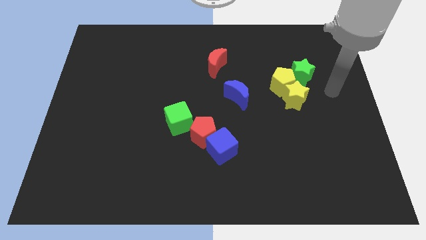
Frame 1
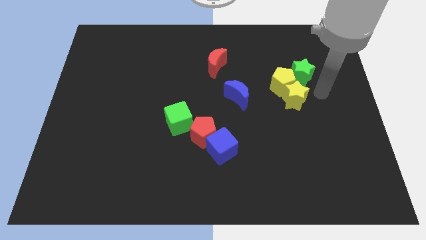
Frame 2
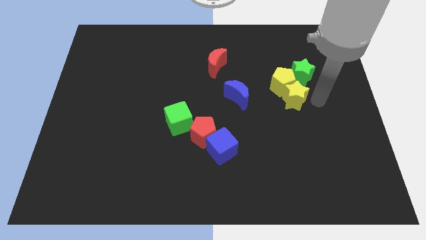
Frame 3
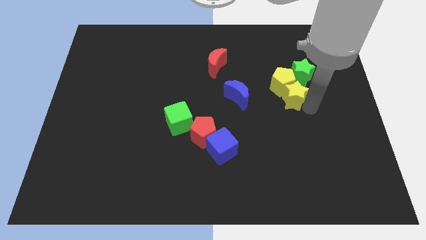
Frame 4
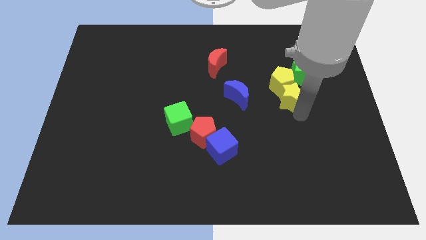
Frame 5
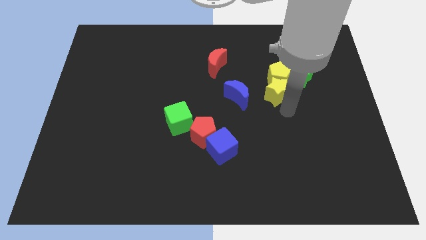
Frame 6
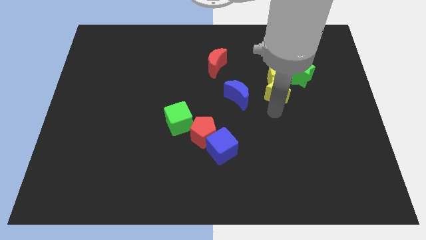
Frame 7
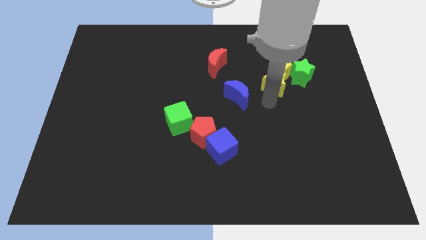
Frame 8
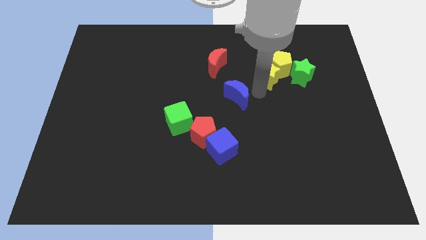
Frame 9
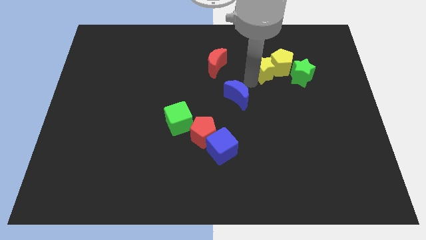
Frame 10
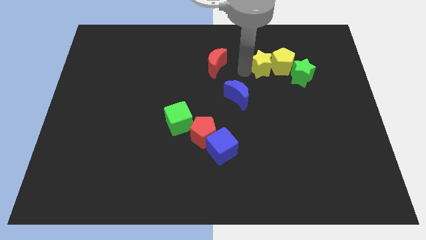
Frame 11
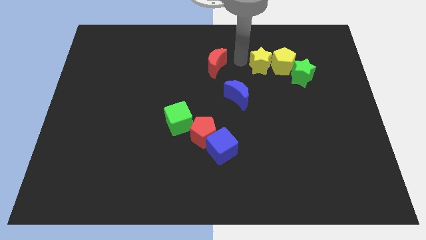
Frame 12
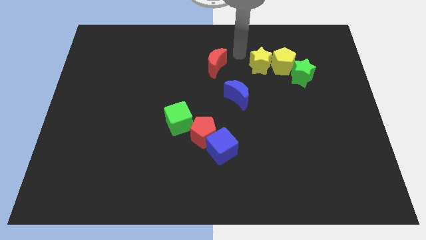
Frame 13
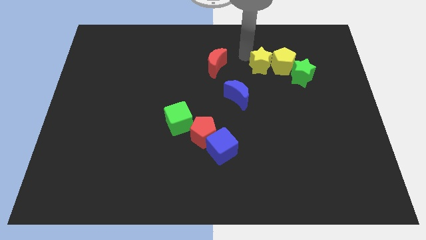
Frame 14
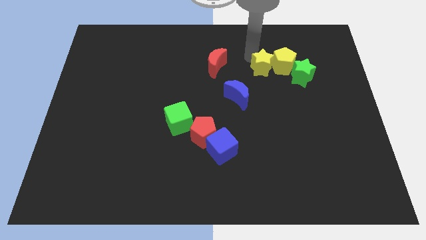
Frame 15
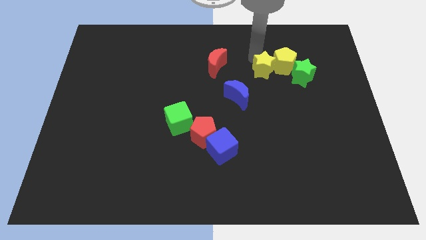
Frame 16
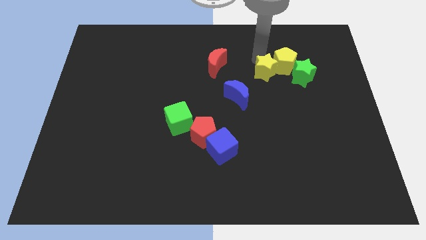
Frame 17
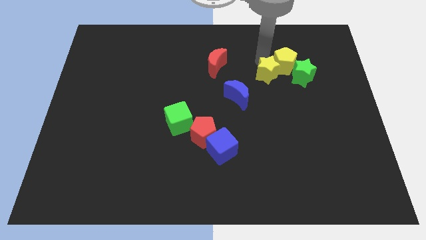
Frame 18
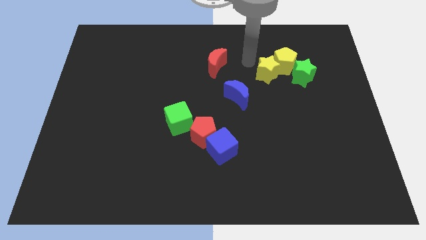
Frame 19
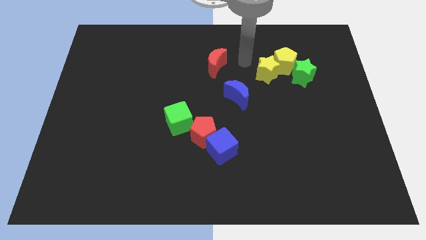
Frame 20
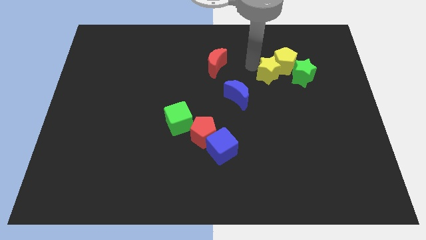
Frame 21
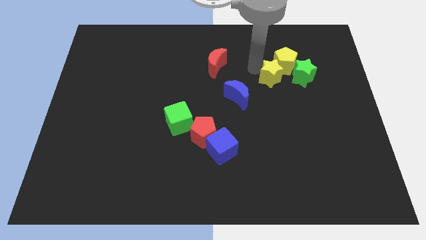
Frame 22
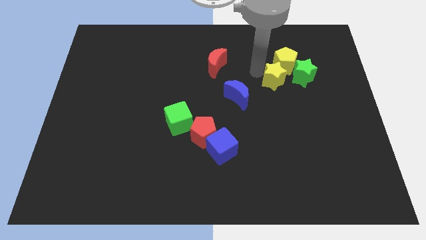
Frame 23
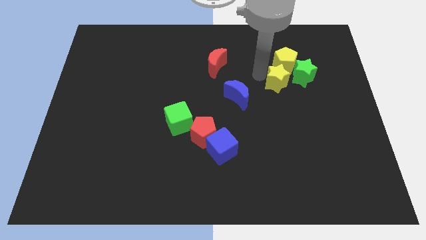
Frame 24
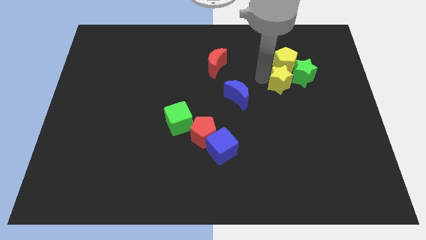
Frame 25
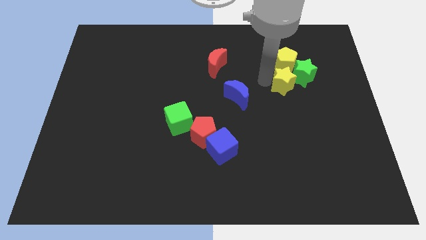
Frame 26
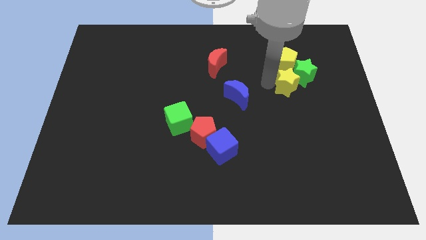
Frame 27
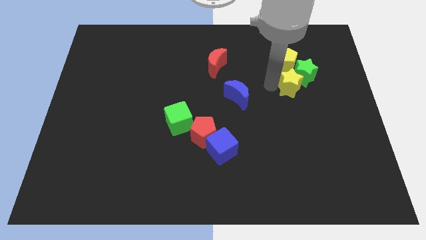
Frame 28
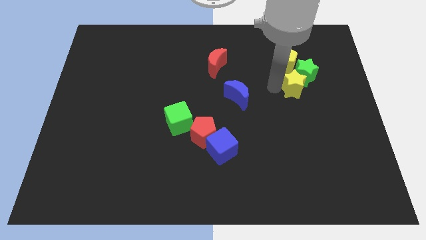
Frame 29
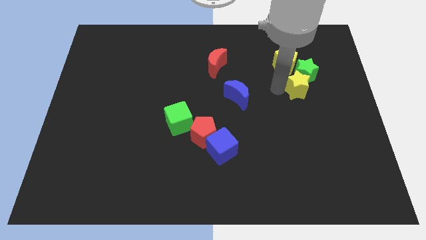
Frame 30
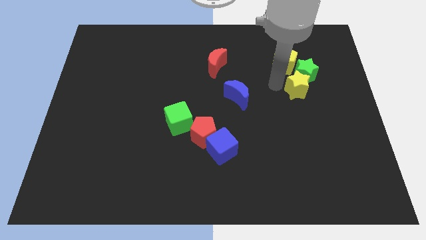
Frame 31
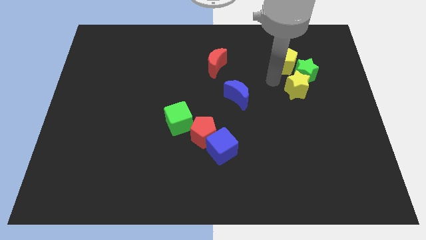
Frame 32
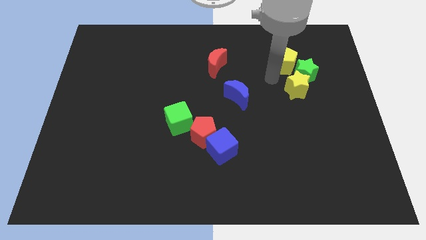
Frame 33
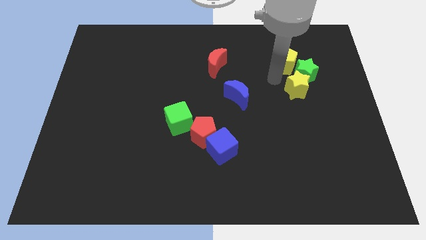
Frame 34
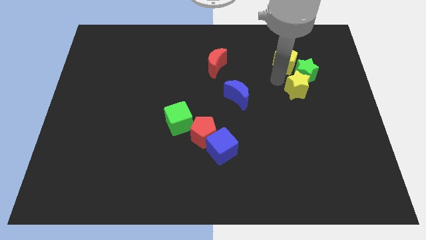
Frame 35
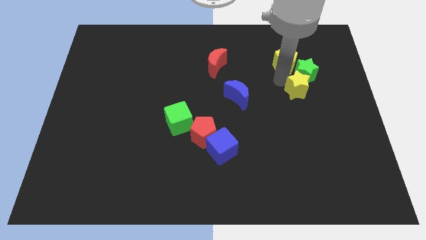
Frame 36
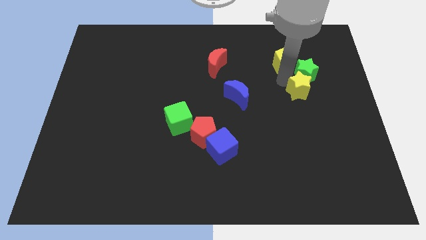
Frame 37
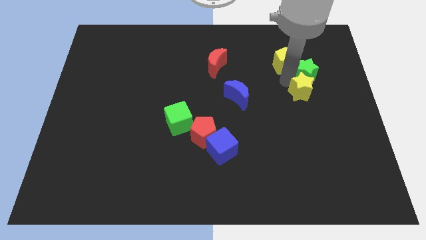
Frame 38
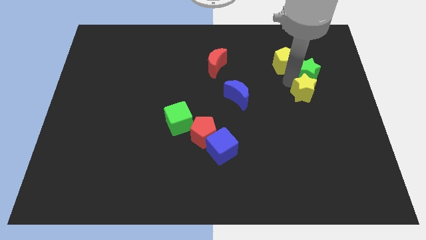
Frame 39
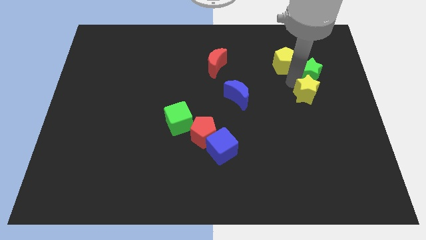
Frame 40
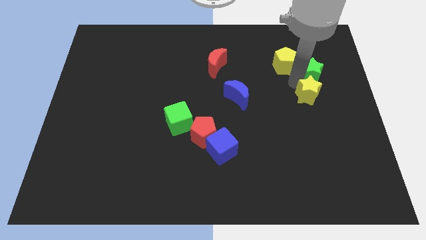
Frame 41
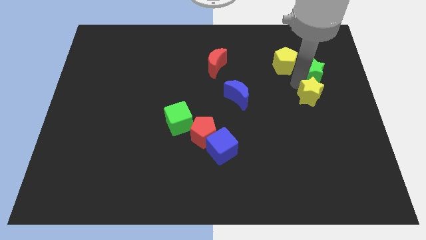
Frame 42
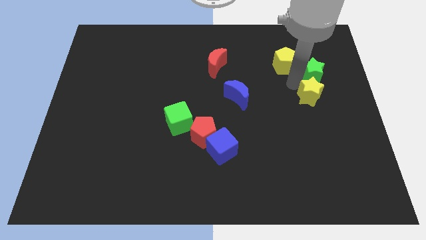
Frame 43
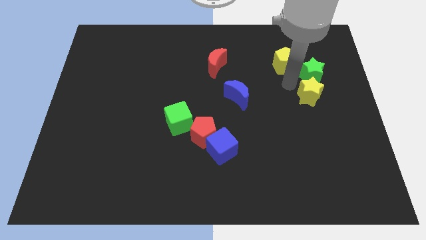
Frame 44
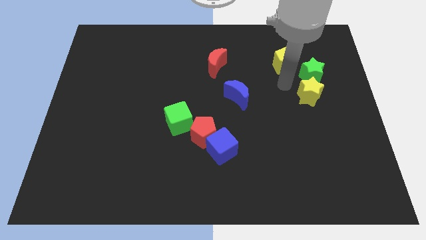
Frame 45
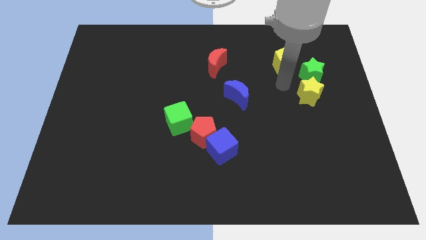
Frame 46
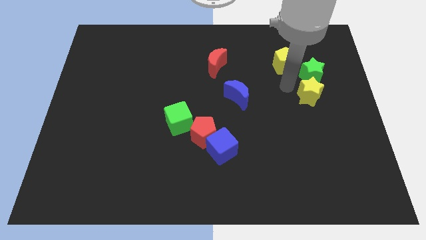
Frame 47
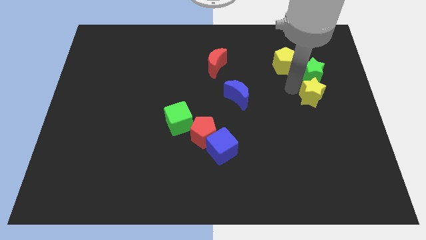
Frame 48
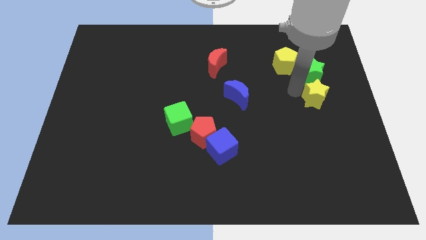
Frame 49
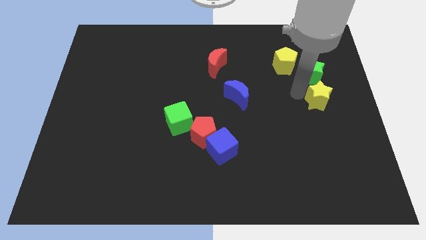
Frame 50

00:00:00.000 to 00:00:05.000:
put the yellow star to the center right

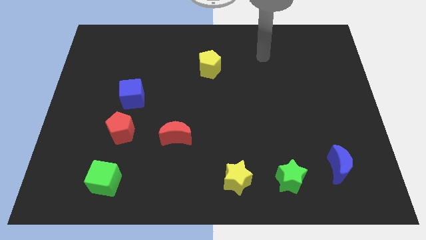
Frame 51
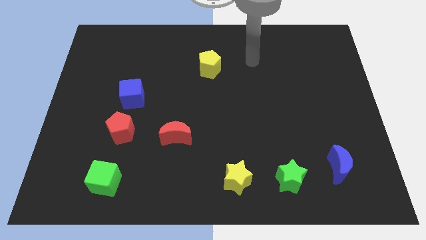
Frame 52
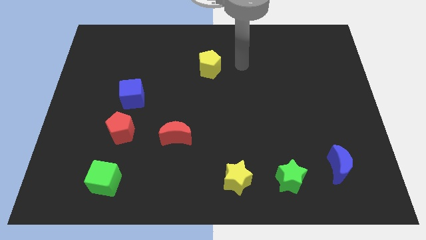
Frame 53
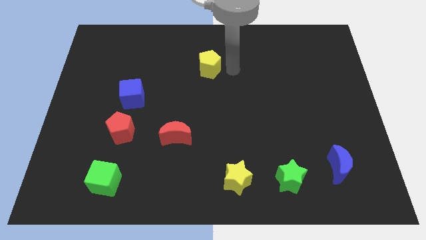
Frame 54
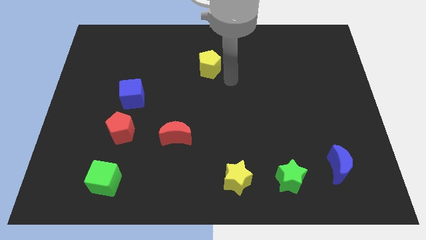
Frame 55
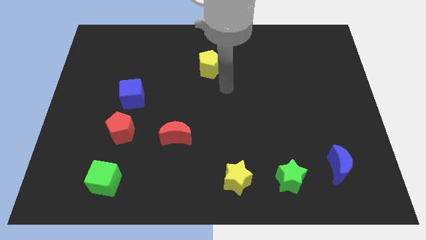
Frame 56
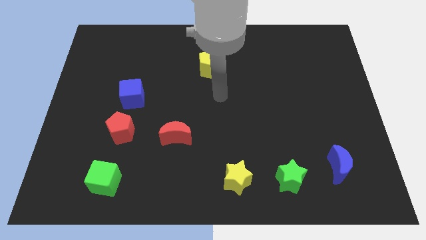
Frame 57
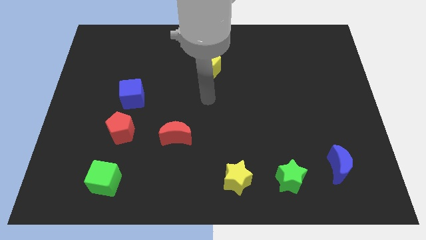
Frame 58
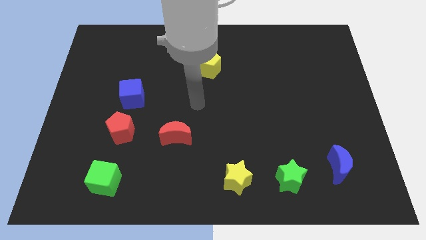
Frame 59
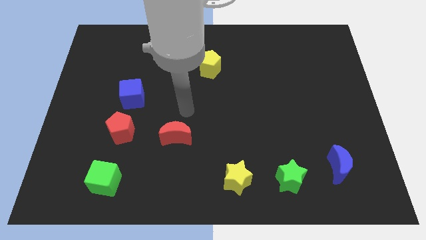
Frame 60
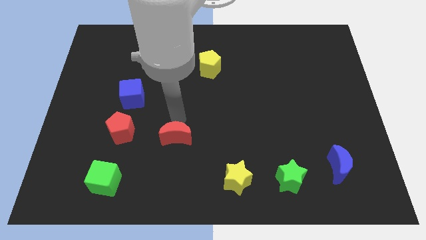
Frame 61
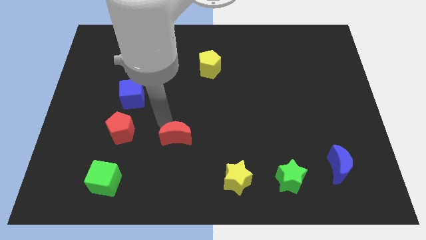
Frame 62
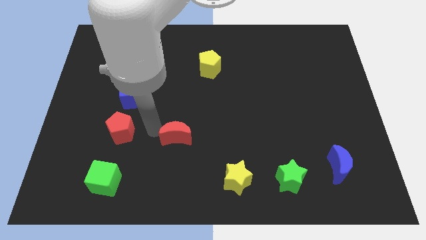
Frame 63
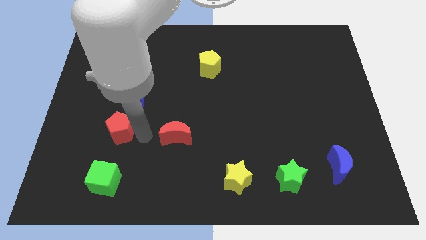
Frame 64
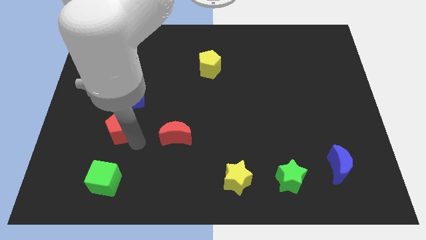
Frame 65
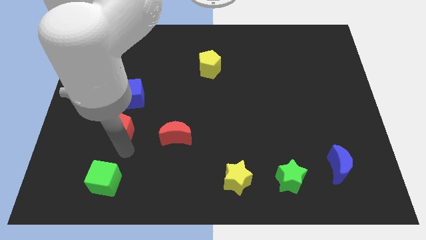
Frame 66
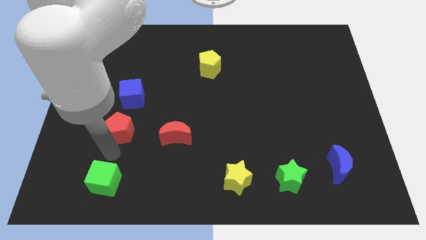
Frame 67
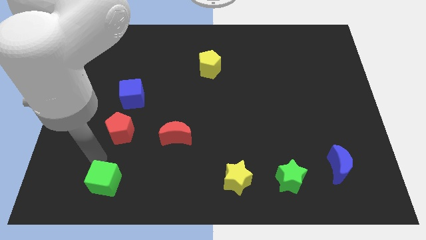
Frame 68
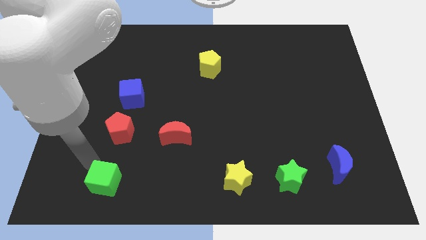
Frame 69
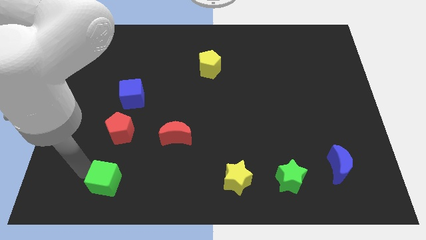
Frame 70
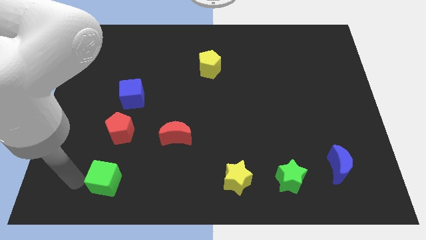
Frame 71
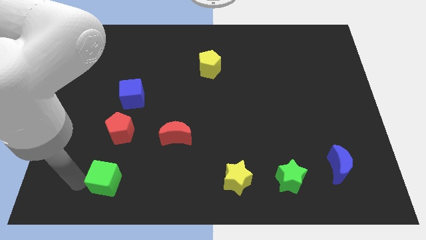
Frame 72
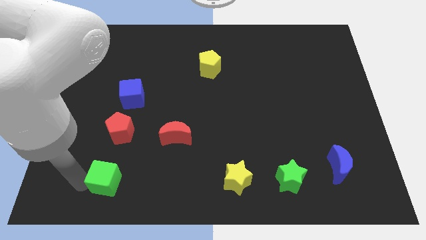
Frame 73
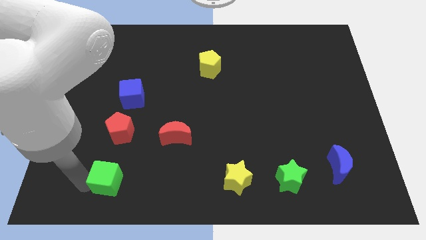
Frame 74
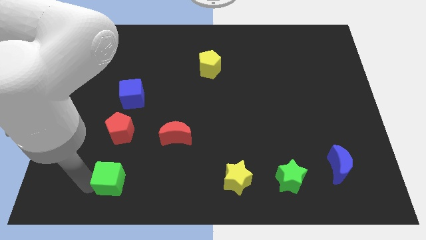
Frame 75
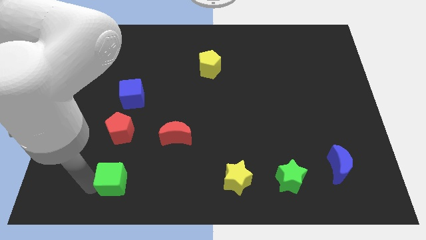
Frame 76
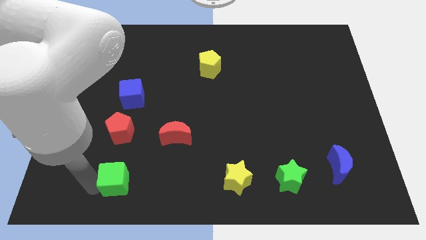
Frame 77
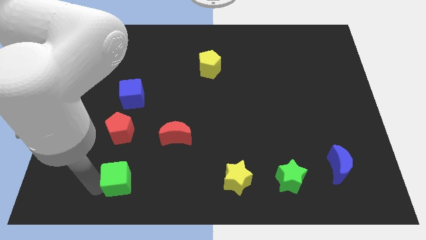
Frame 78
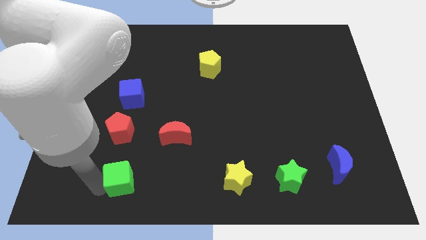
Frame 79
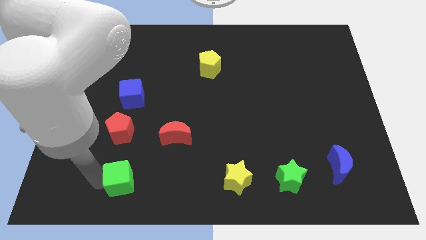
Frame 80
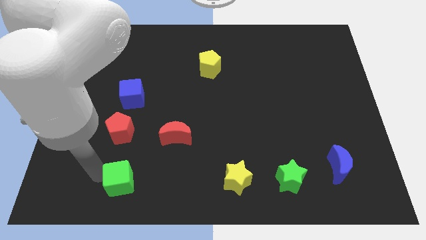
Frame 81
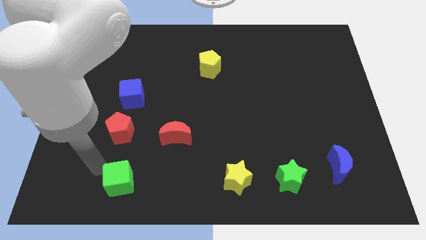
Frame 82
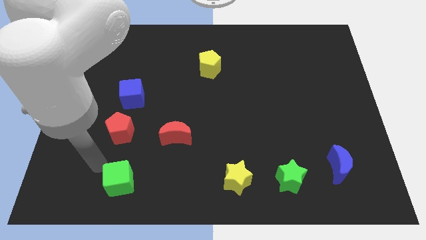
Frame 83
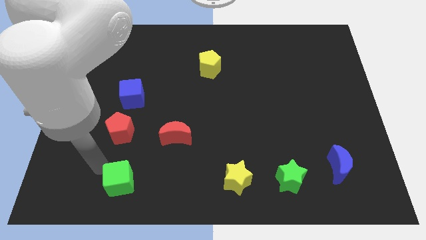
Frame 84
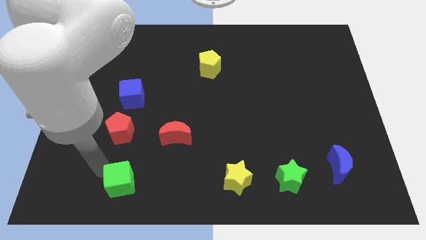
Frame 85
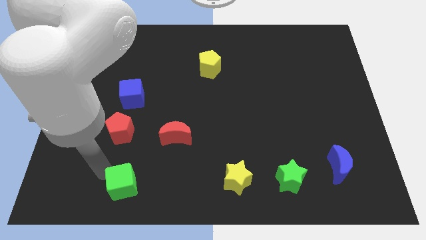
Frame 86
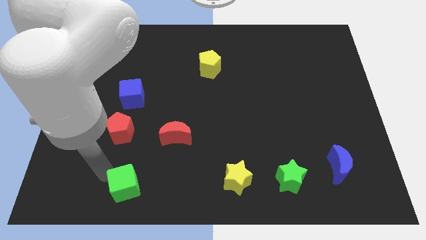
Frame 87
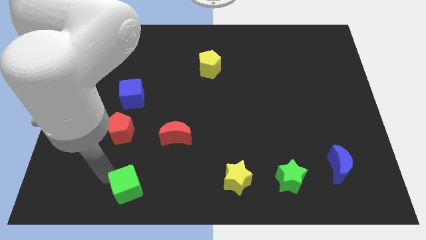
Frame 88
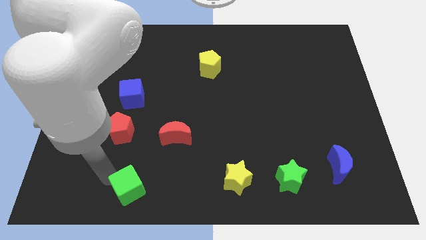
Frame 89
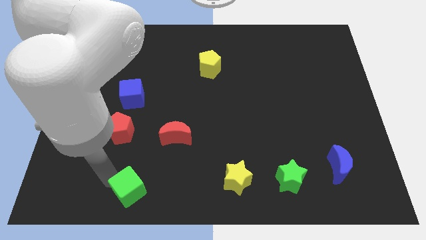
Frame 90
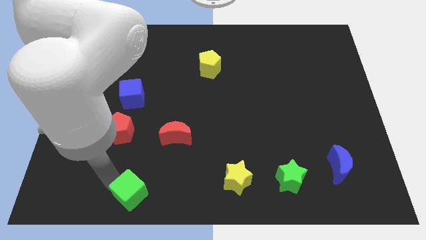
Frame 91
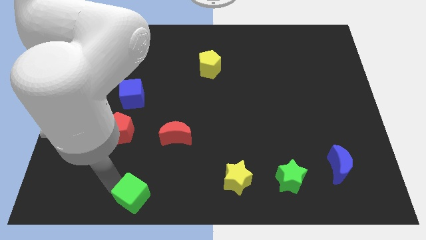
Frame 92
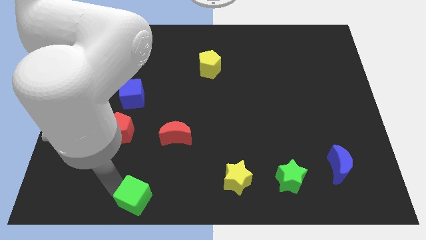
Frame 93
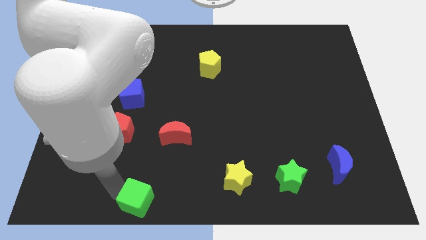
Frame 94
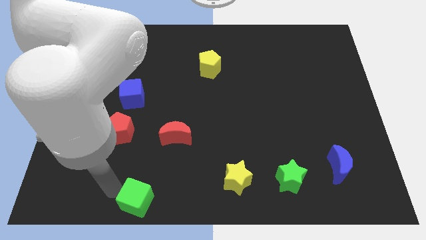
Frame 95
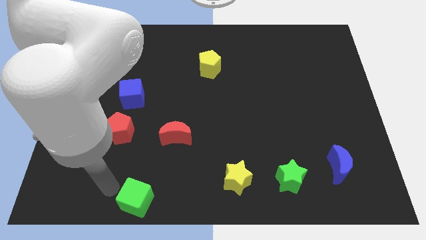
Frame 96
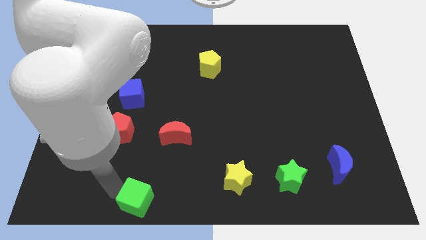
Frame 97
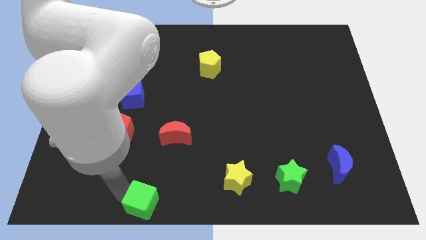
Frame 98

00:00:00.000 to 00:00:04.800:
slide the green cube to the bottom
